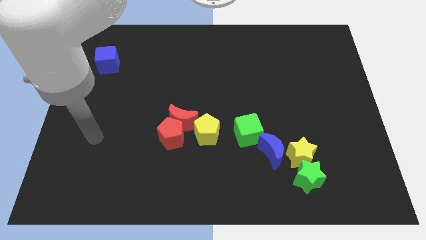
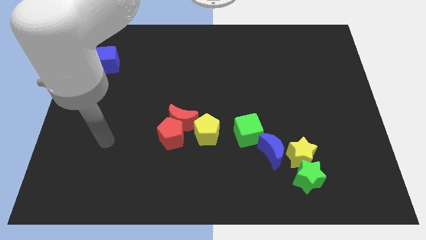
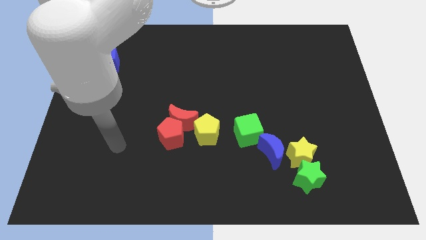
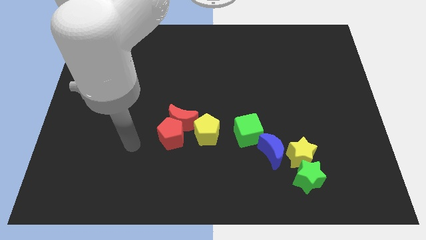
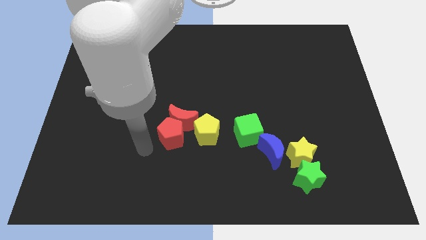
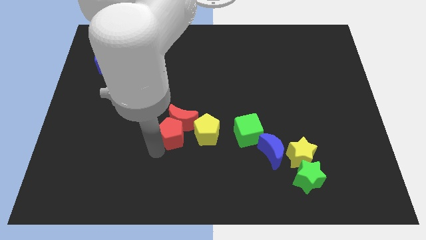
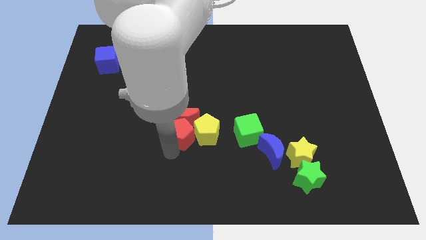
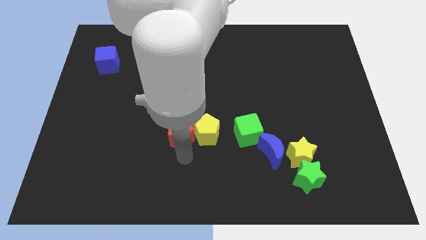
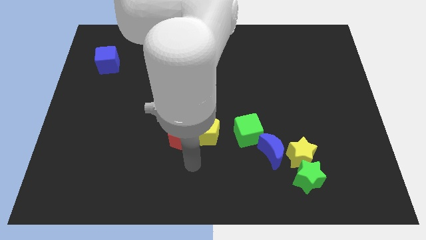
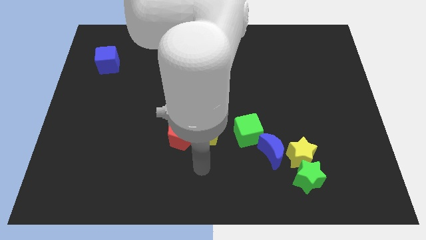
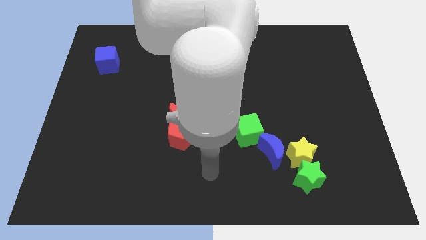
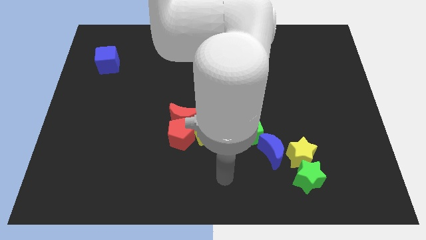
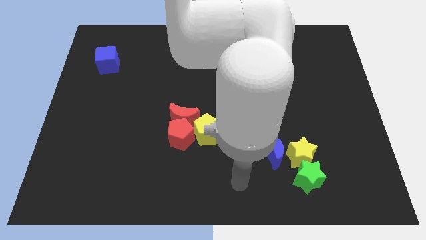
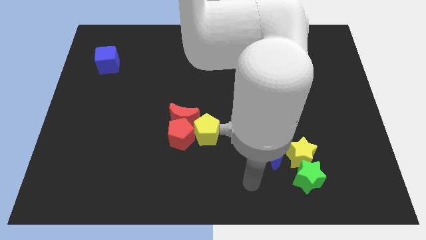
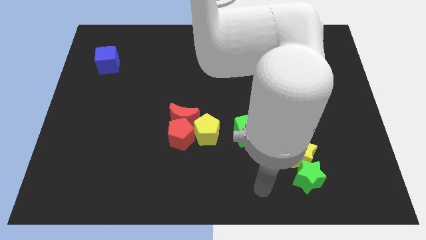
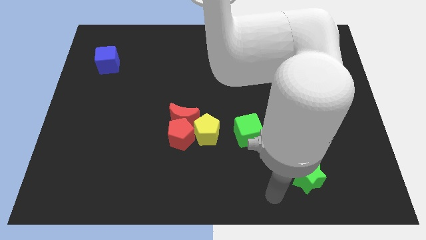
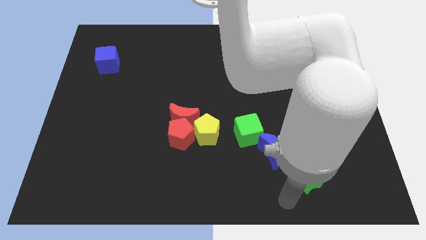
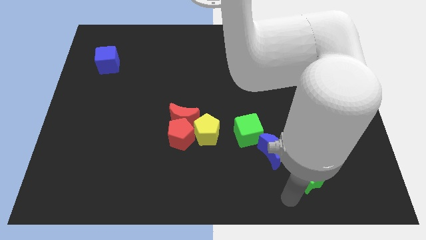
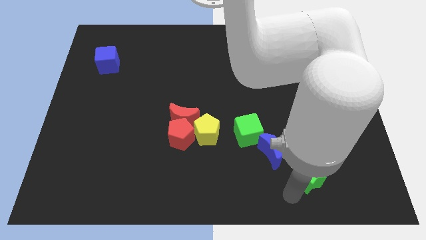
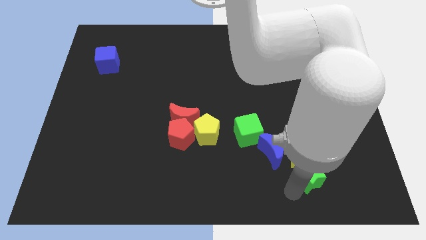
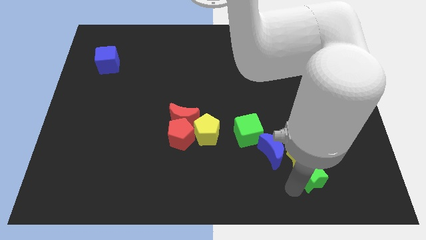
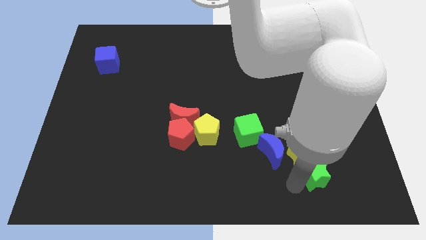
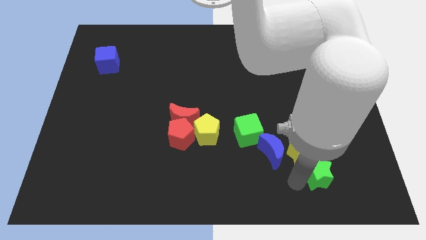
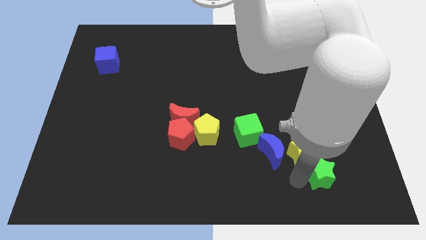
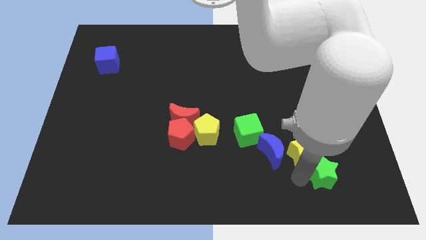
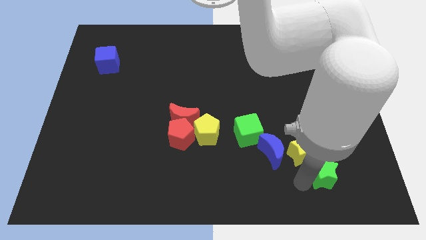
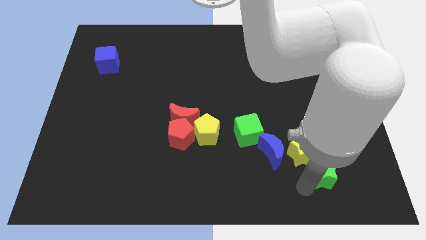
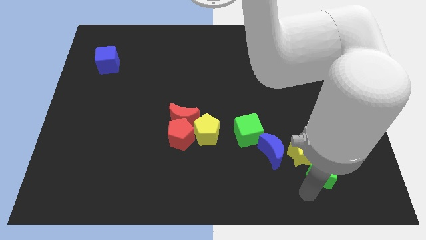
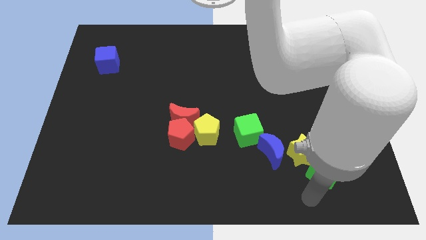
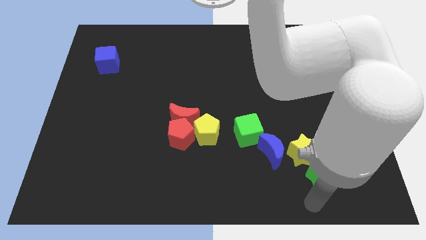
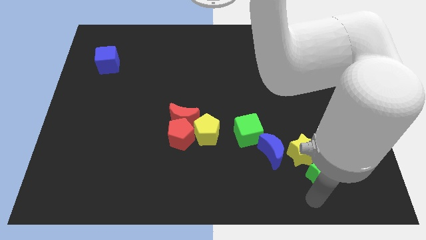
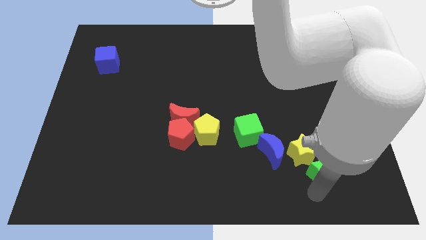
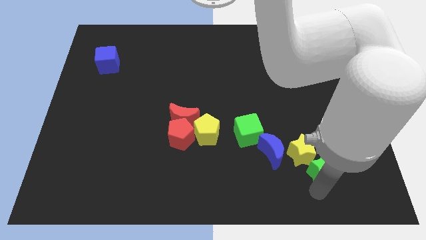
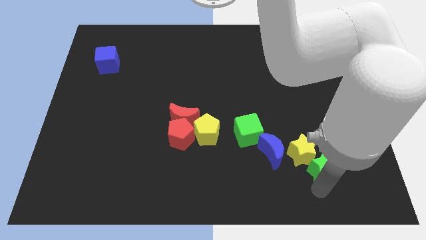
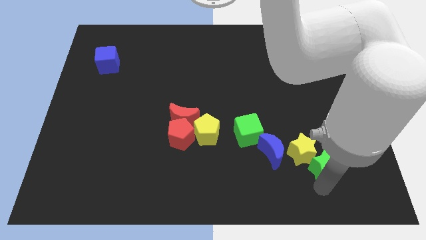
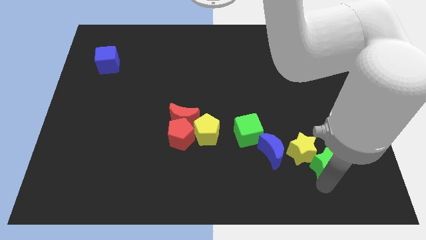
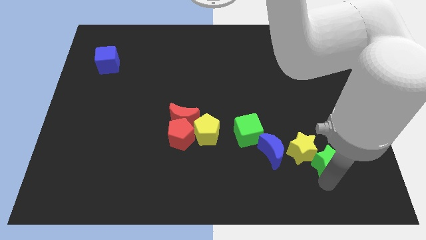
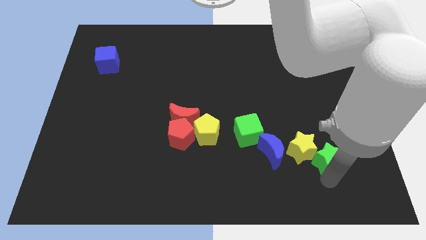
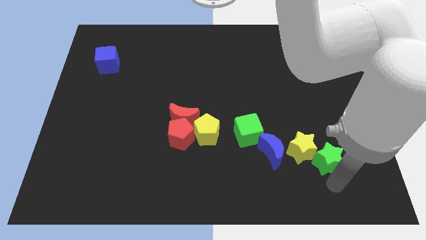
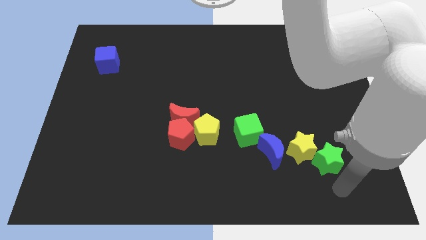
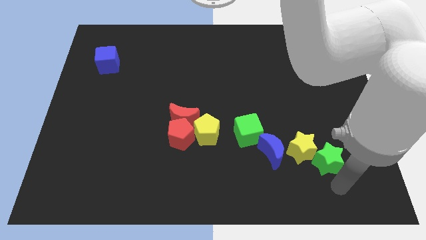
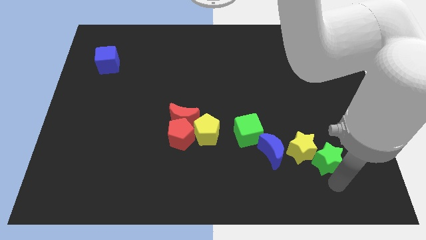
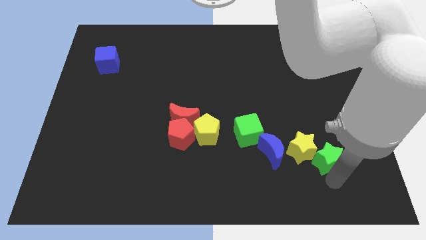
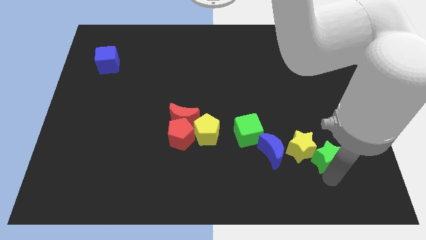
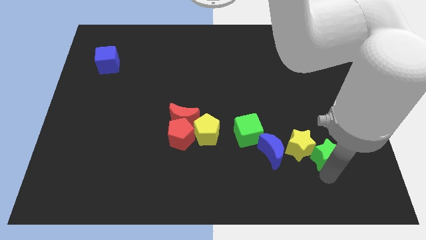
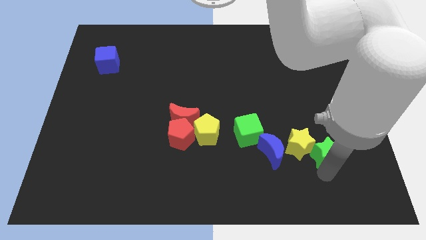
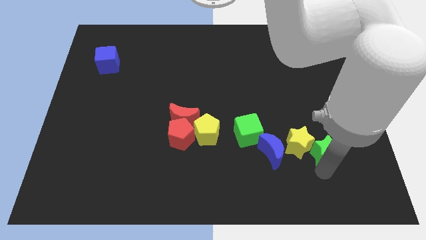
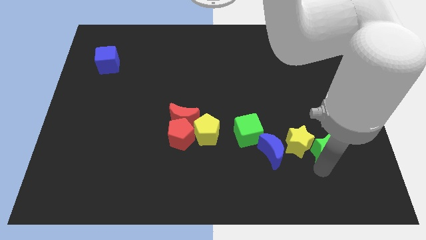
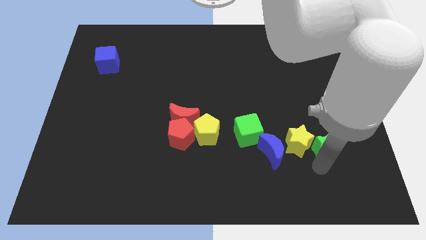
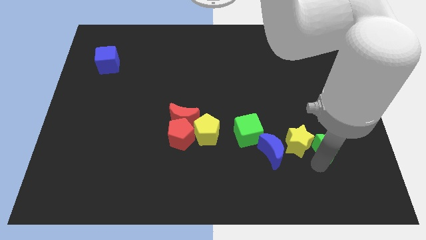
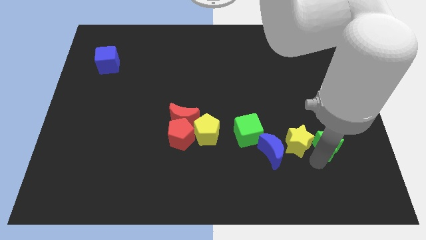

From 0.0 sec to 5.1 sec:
push the green star somewhat up

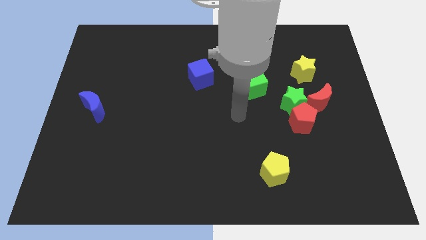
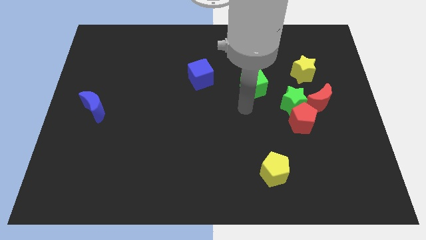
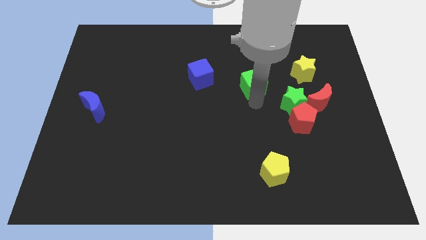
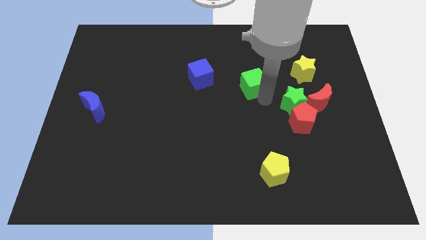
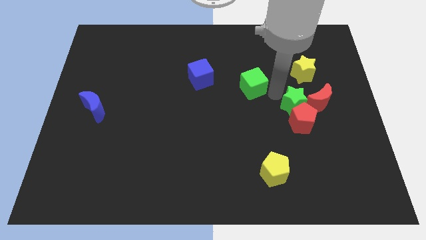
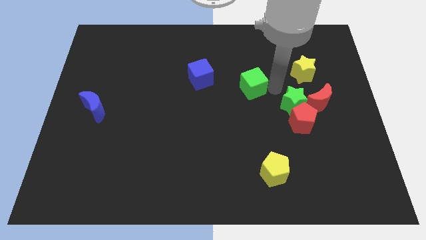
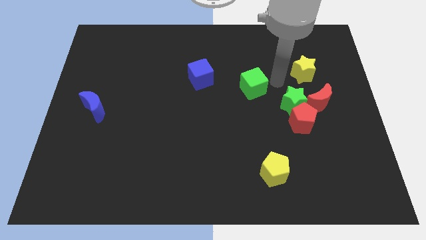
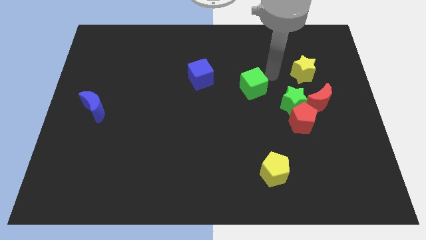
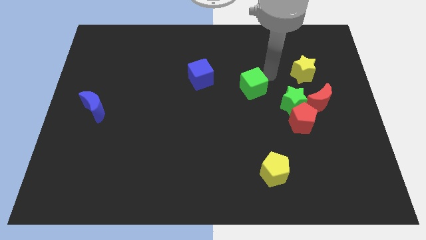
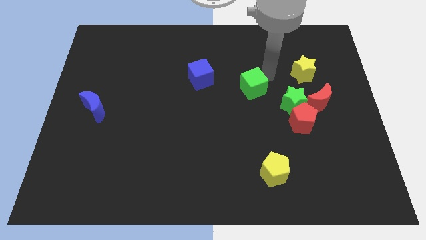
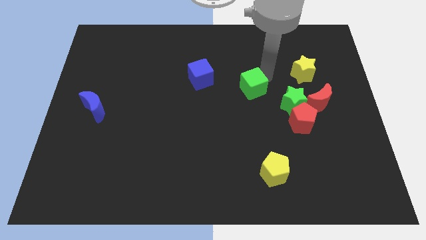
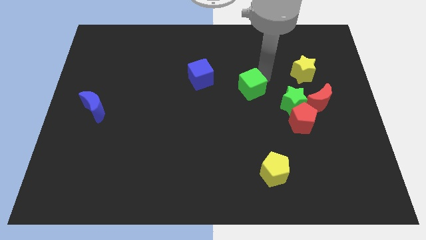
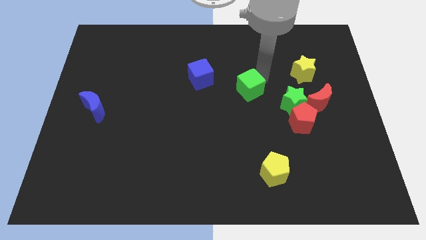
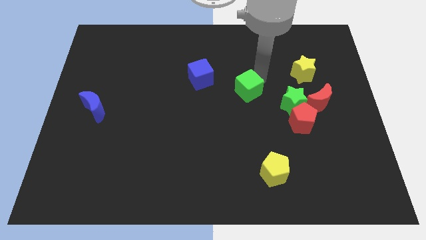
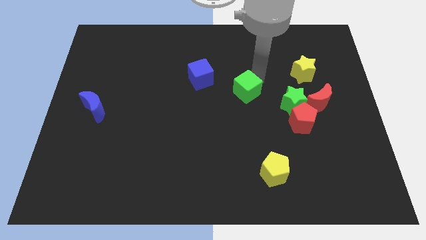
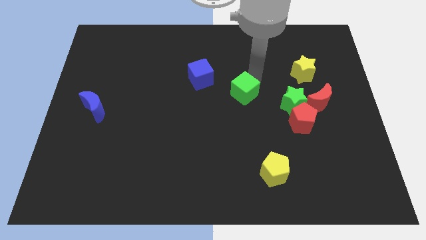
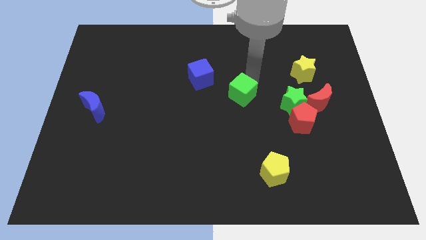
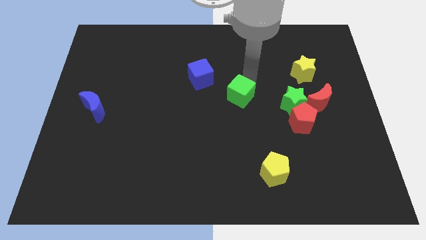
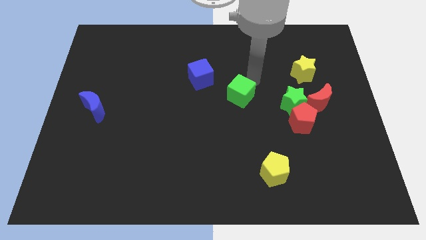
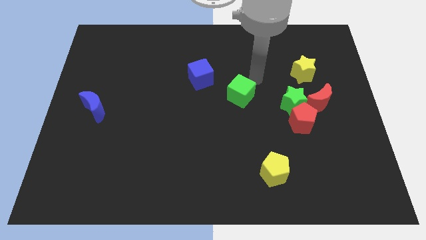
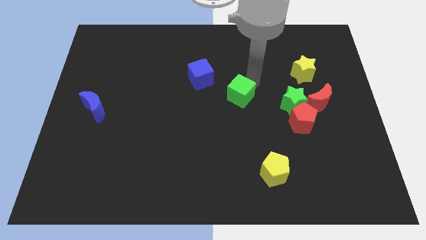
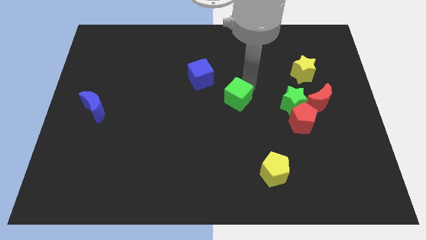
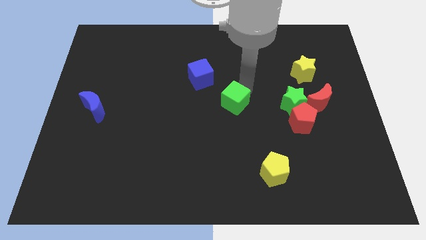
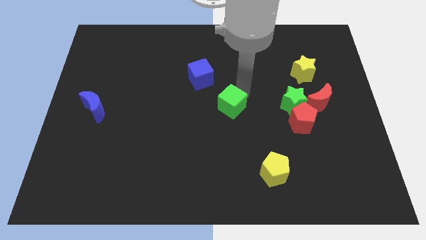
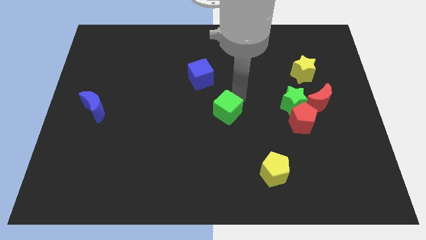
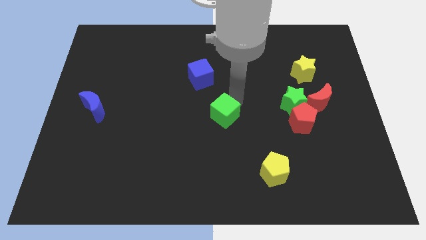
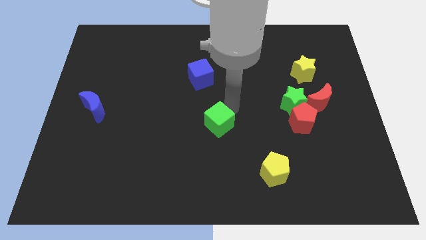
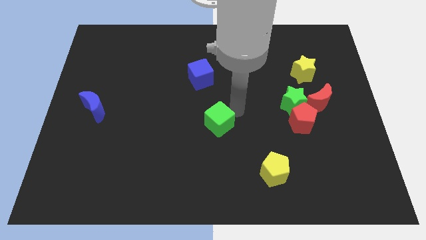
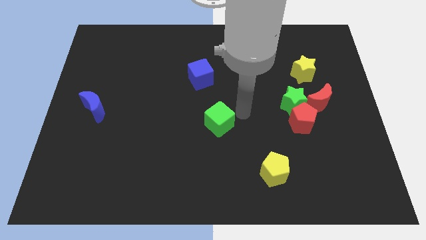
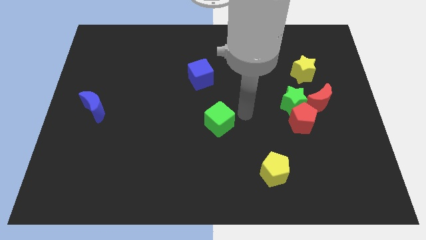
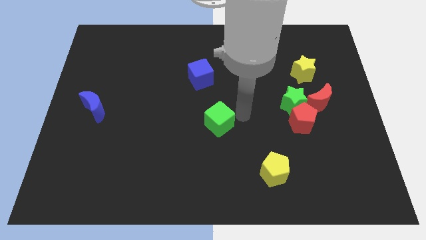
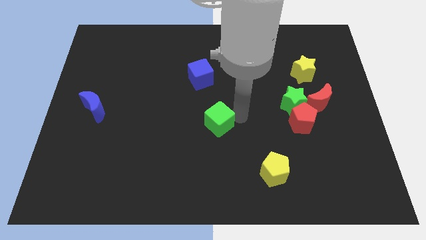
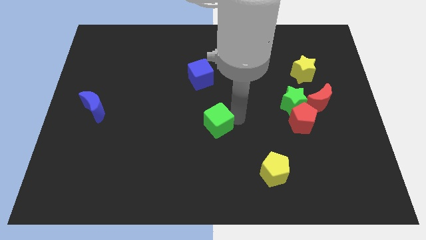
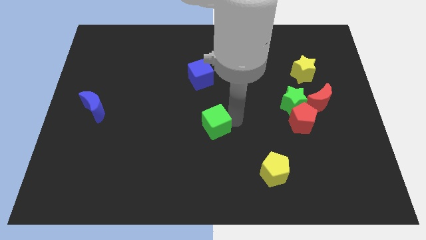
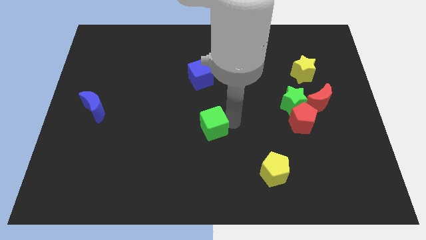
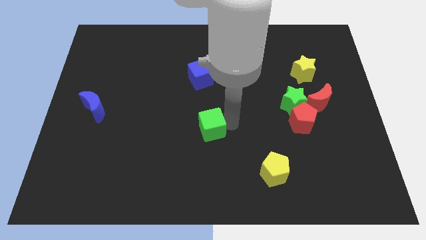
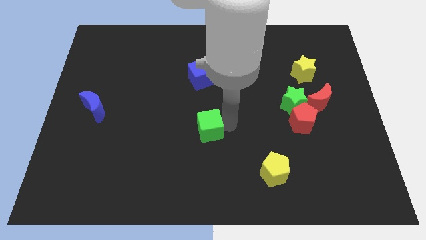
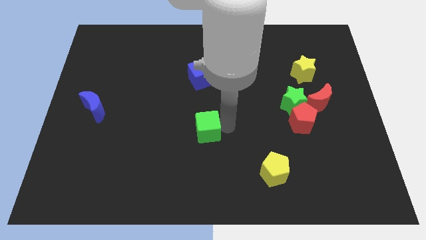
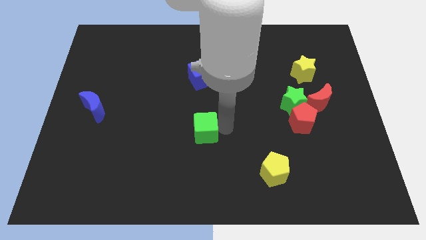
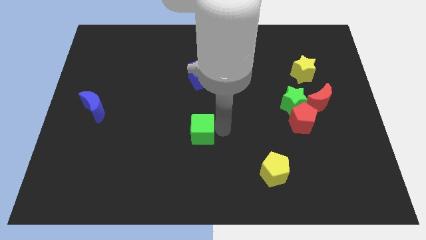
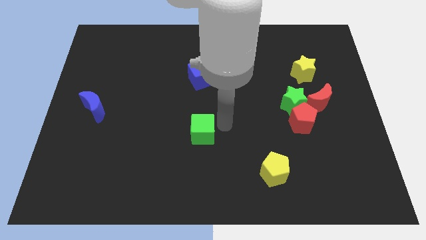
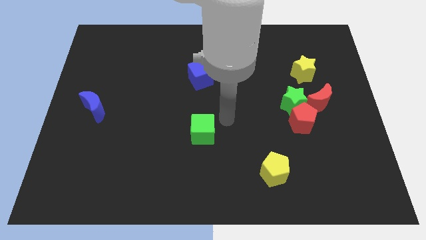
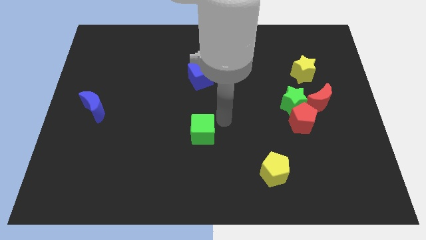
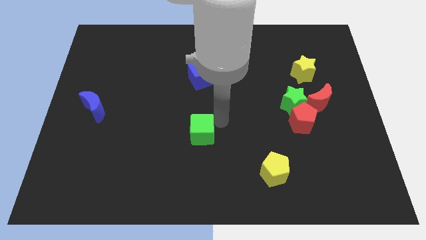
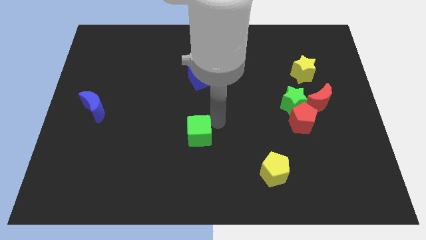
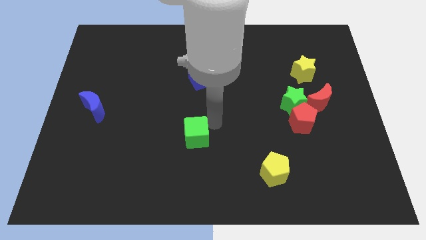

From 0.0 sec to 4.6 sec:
push the green cube downwards and then left
